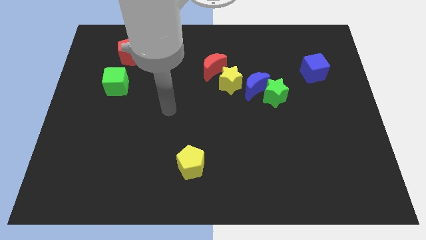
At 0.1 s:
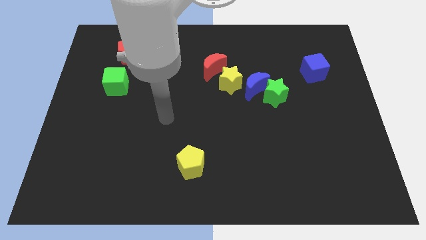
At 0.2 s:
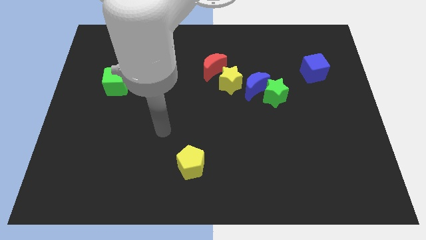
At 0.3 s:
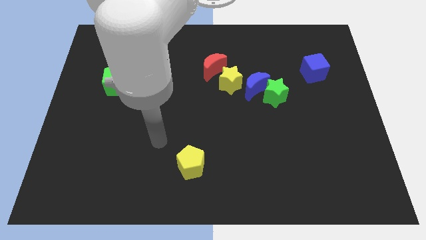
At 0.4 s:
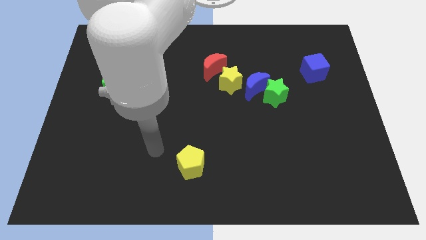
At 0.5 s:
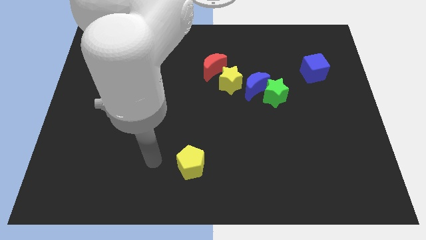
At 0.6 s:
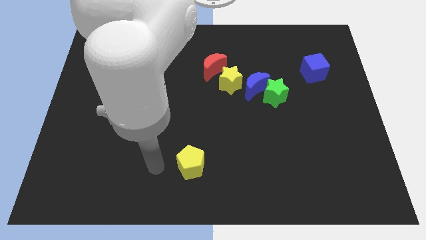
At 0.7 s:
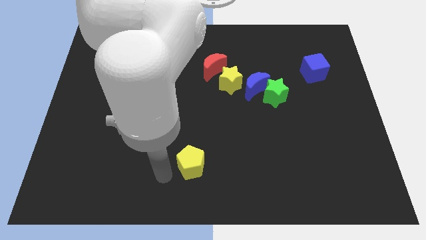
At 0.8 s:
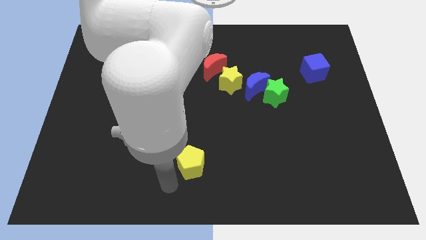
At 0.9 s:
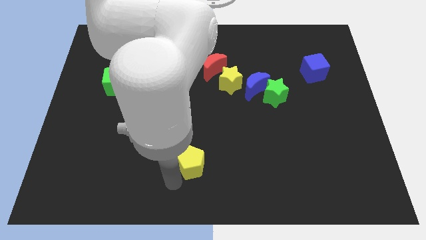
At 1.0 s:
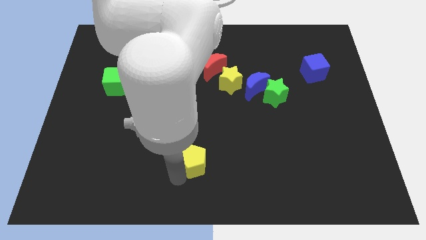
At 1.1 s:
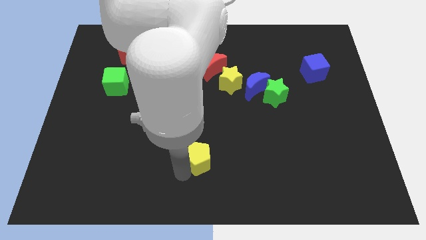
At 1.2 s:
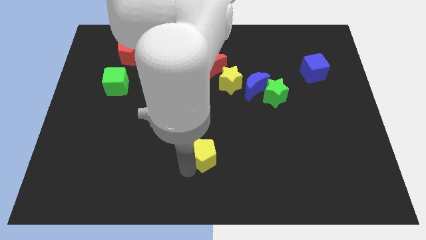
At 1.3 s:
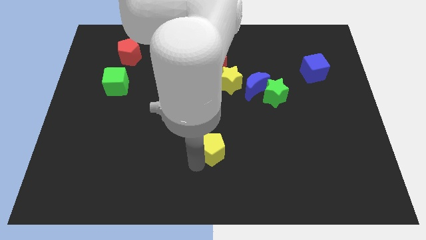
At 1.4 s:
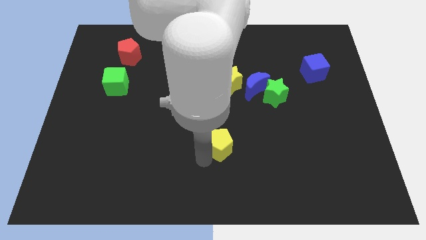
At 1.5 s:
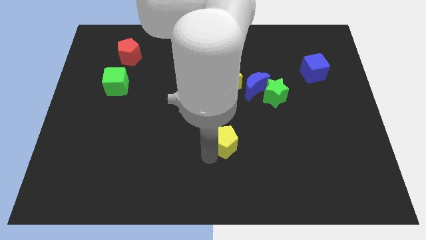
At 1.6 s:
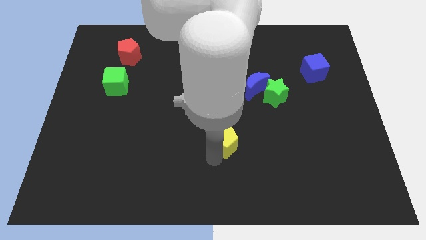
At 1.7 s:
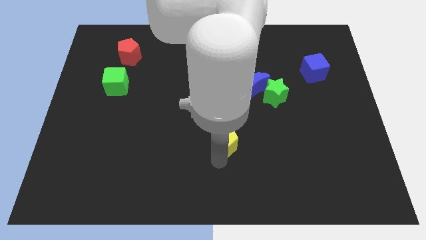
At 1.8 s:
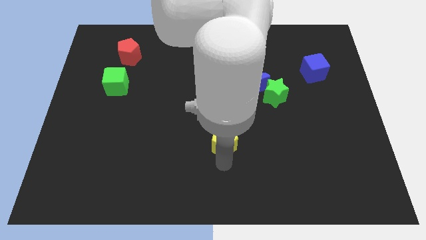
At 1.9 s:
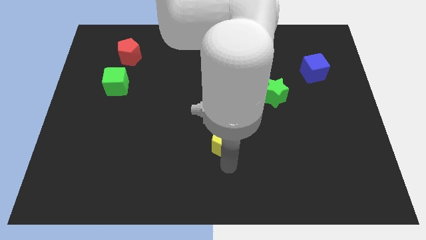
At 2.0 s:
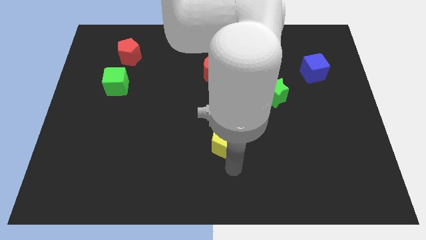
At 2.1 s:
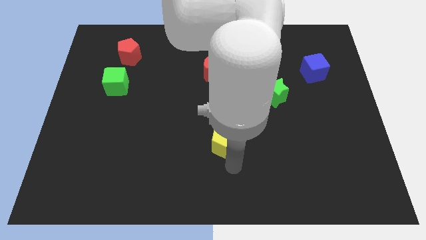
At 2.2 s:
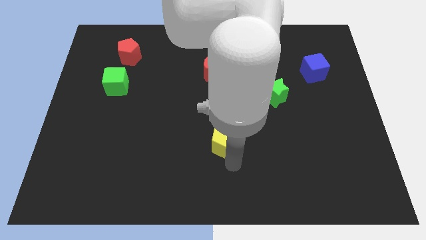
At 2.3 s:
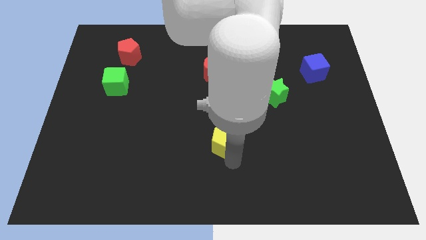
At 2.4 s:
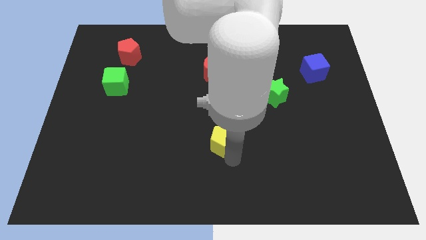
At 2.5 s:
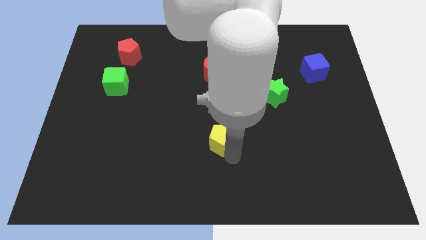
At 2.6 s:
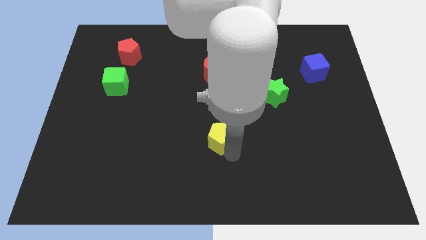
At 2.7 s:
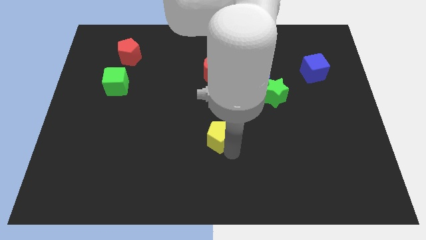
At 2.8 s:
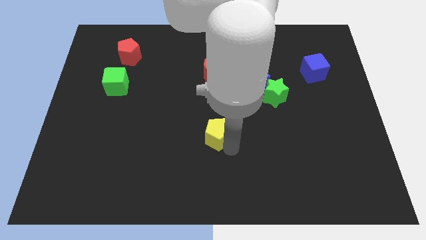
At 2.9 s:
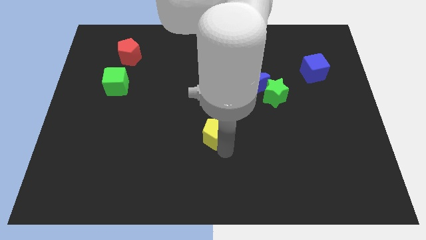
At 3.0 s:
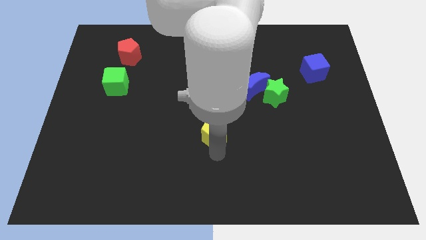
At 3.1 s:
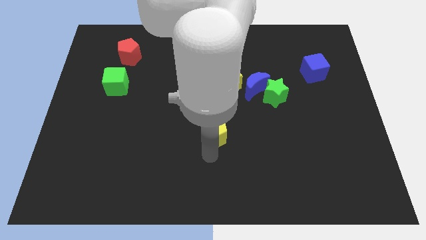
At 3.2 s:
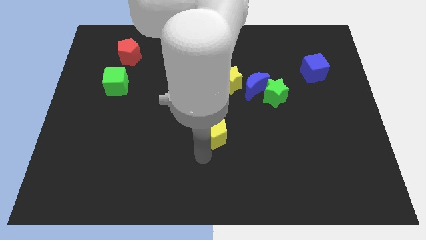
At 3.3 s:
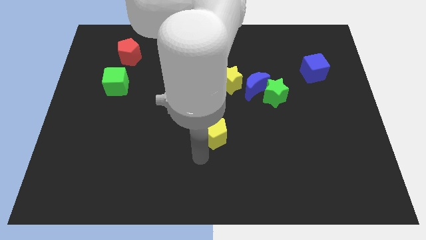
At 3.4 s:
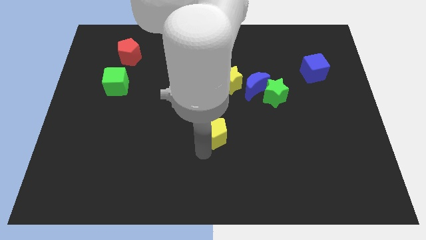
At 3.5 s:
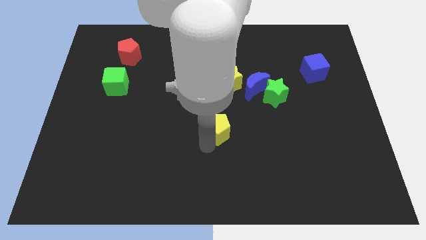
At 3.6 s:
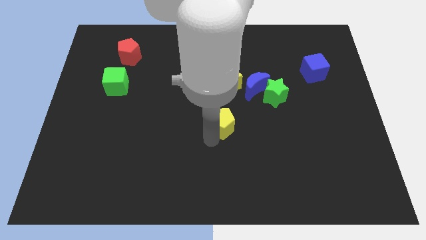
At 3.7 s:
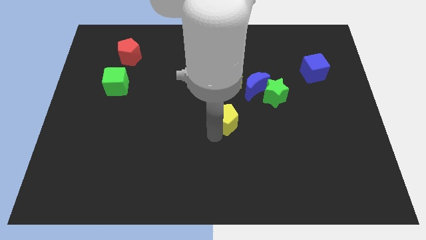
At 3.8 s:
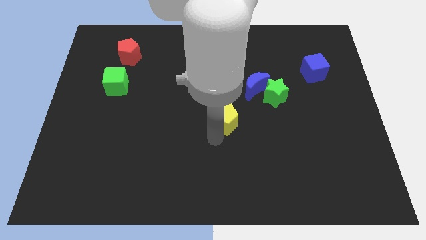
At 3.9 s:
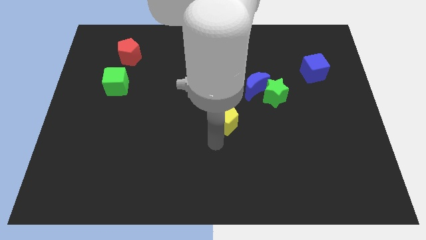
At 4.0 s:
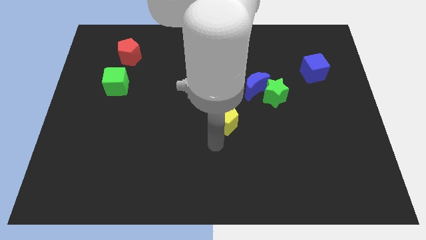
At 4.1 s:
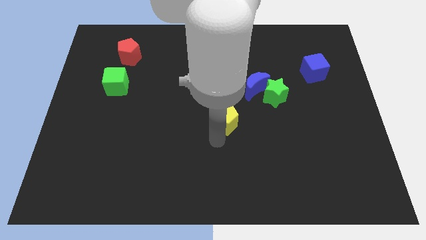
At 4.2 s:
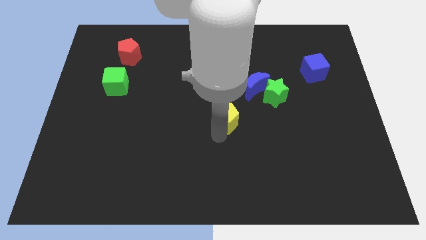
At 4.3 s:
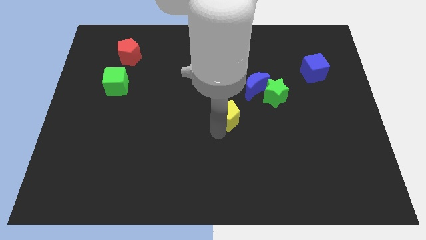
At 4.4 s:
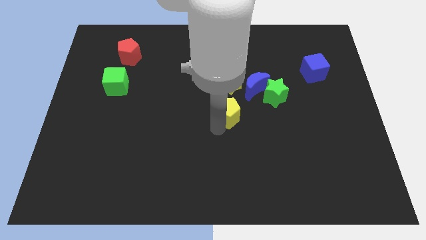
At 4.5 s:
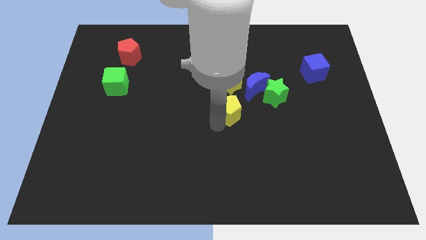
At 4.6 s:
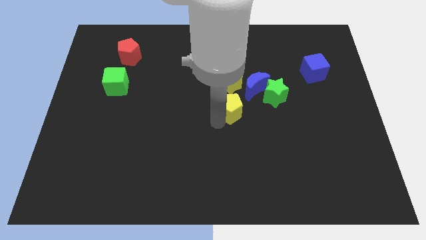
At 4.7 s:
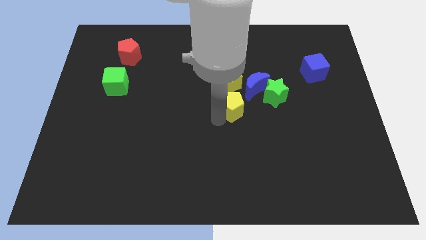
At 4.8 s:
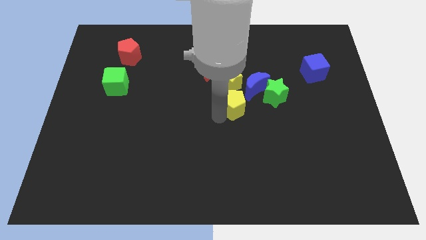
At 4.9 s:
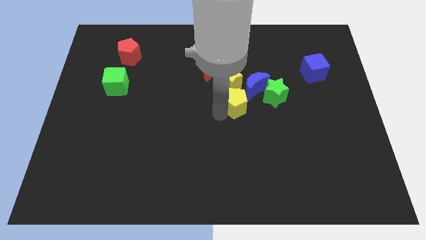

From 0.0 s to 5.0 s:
move the yellow pentagon diagonally down and to the right of the yellow star

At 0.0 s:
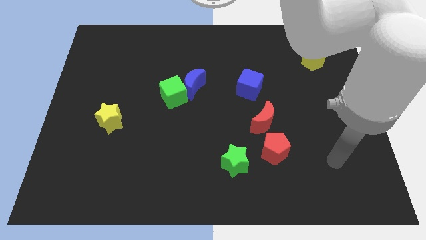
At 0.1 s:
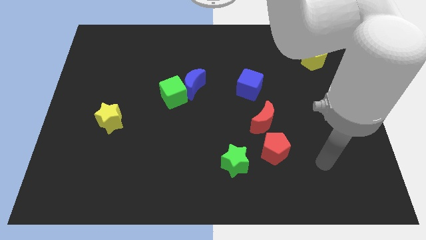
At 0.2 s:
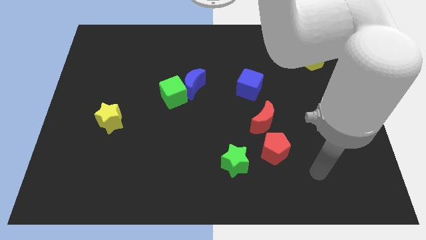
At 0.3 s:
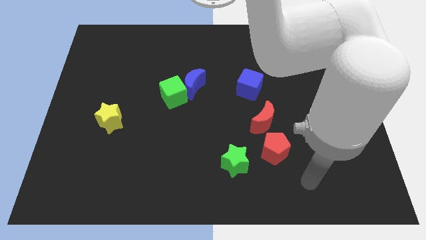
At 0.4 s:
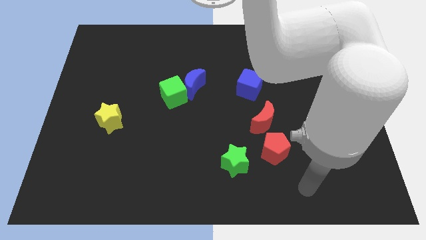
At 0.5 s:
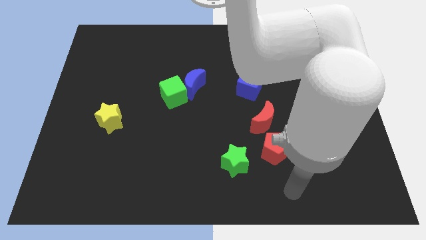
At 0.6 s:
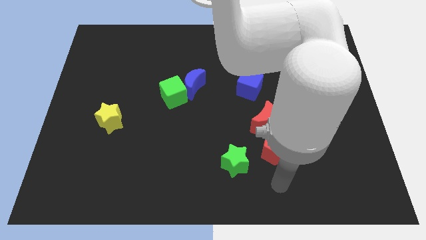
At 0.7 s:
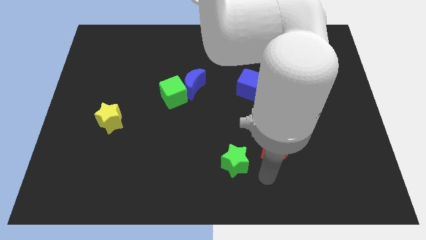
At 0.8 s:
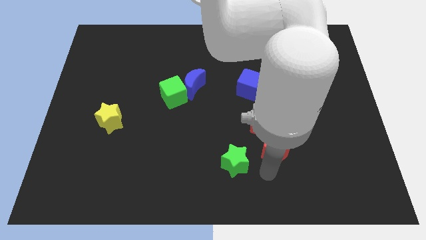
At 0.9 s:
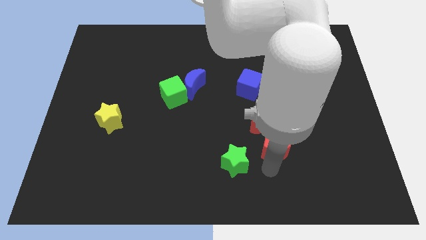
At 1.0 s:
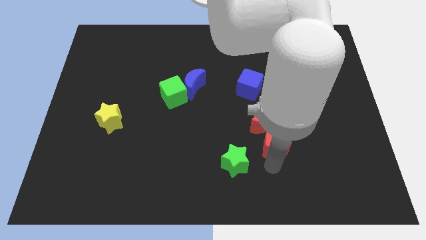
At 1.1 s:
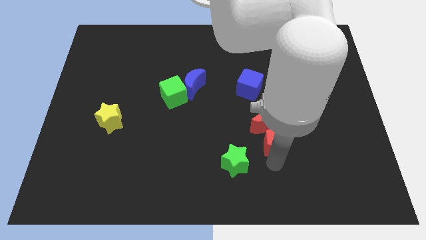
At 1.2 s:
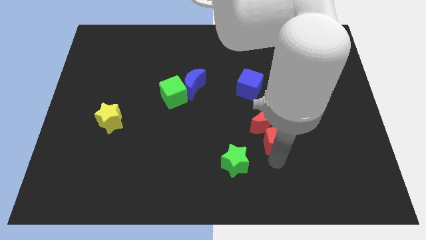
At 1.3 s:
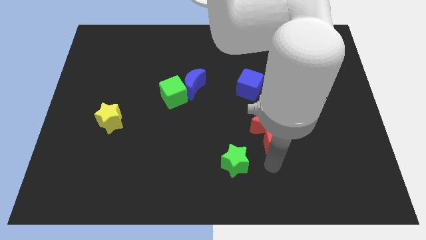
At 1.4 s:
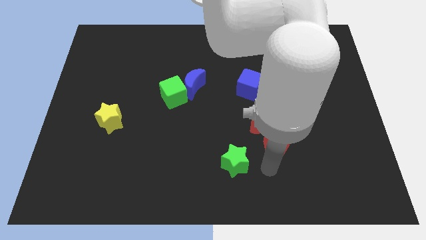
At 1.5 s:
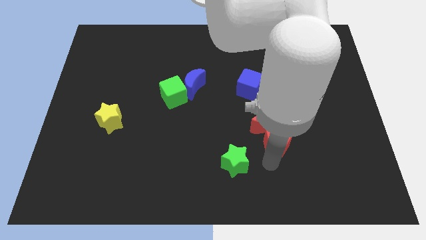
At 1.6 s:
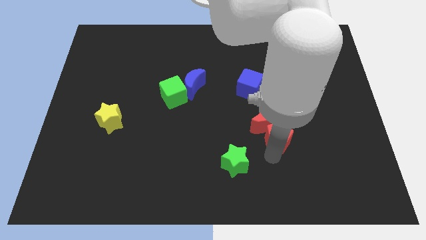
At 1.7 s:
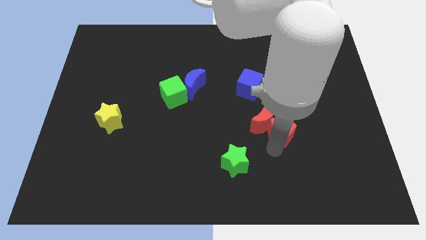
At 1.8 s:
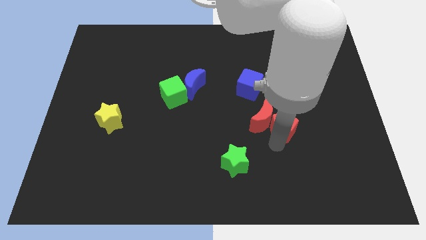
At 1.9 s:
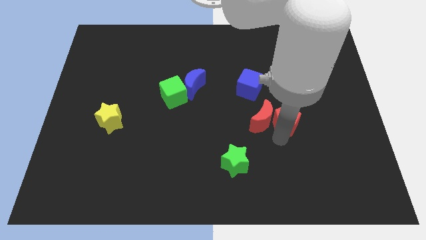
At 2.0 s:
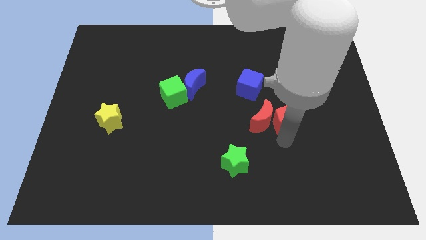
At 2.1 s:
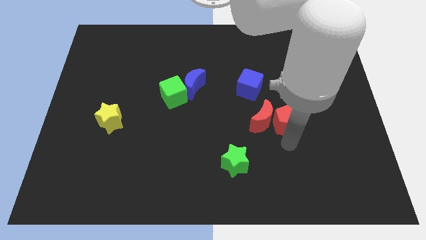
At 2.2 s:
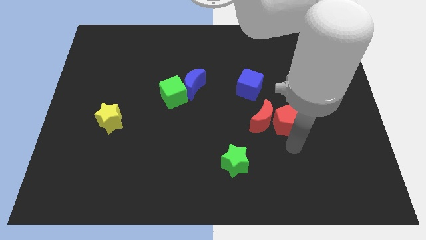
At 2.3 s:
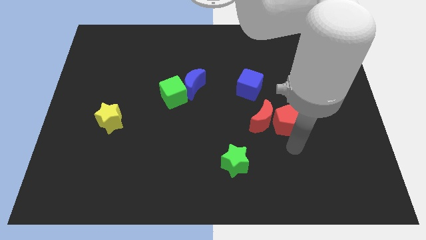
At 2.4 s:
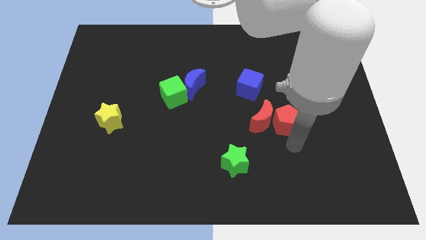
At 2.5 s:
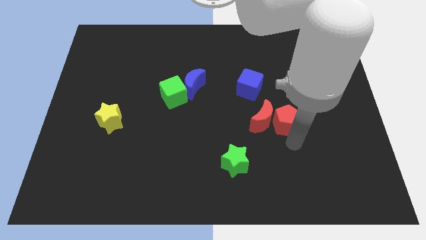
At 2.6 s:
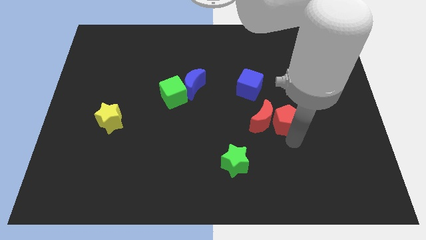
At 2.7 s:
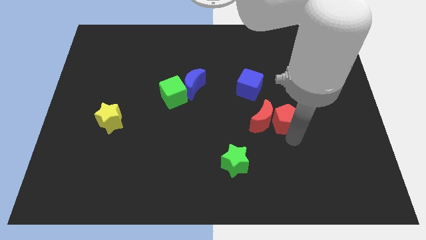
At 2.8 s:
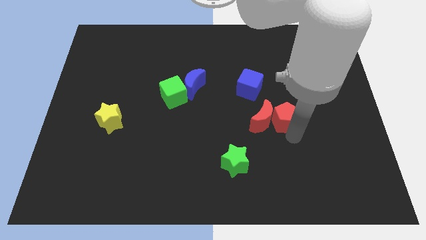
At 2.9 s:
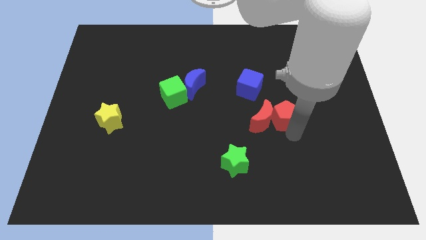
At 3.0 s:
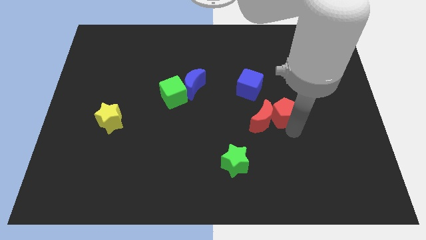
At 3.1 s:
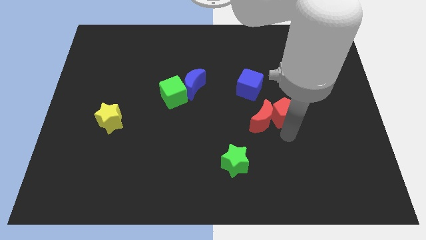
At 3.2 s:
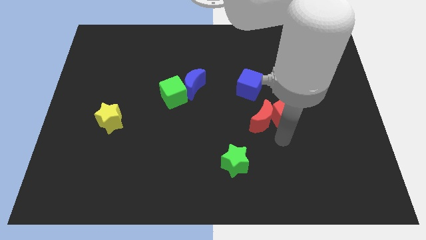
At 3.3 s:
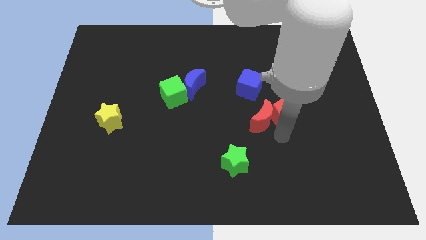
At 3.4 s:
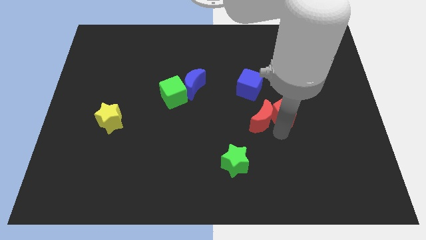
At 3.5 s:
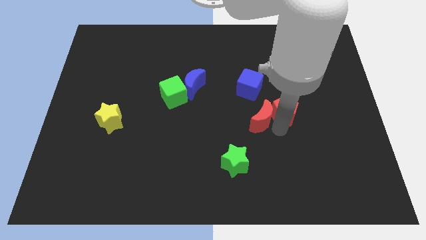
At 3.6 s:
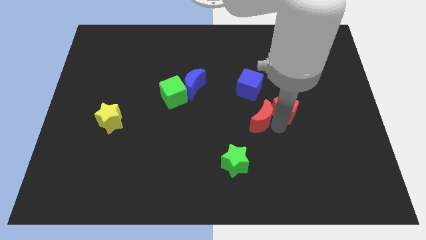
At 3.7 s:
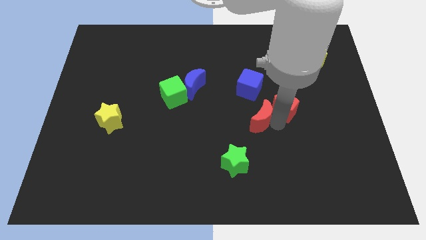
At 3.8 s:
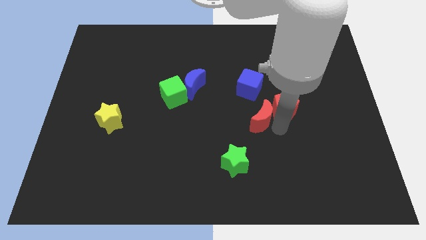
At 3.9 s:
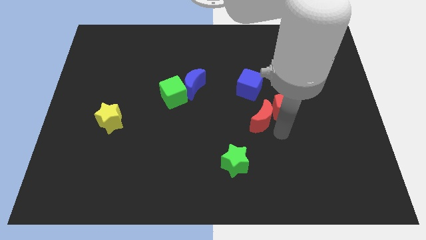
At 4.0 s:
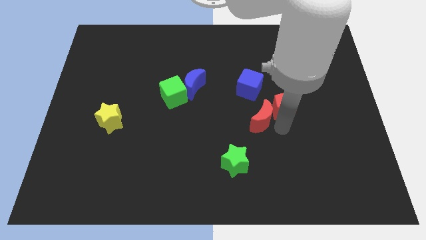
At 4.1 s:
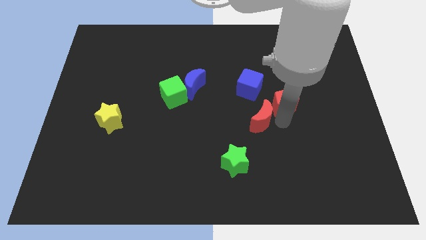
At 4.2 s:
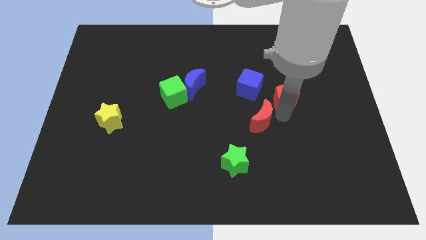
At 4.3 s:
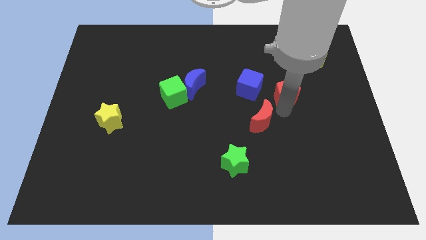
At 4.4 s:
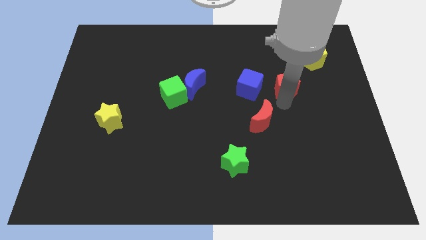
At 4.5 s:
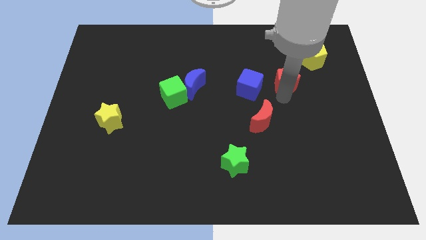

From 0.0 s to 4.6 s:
push the red pentagon to the bottom left of the yellow pentagon
